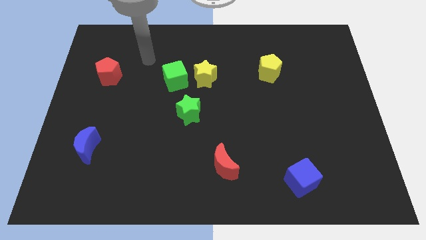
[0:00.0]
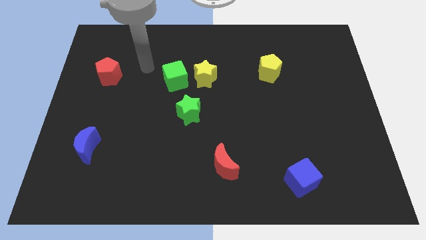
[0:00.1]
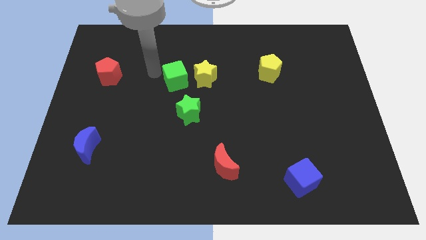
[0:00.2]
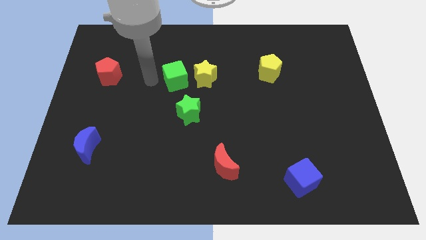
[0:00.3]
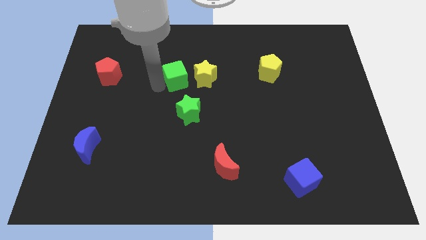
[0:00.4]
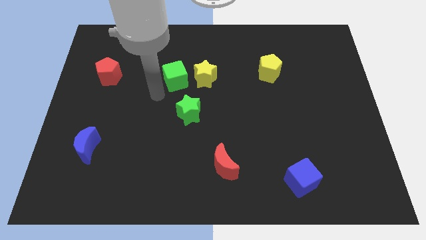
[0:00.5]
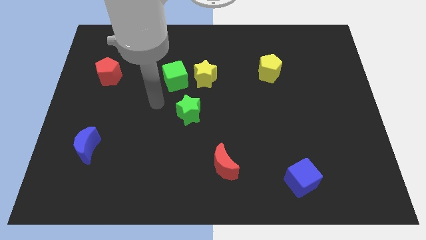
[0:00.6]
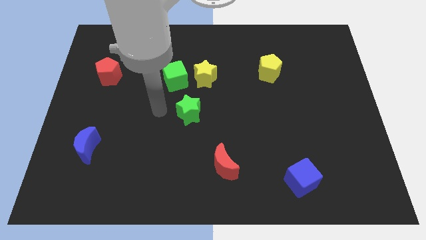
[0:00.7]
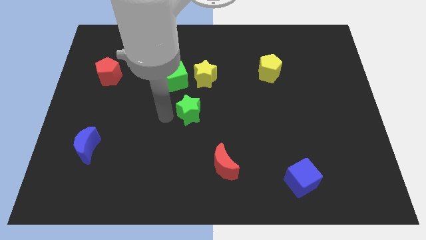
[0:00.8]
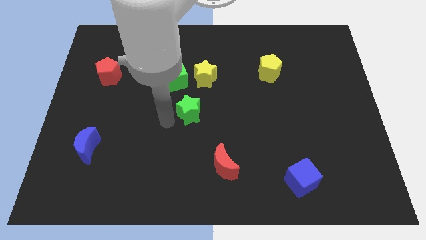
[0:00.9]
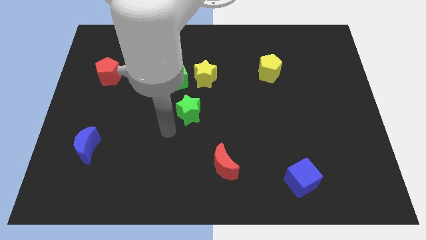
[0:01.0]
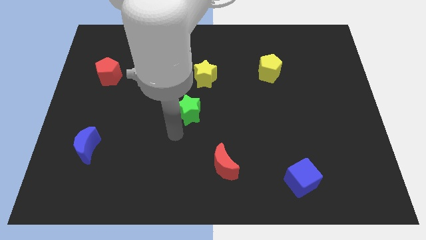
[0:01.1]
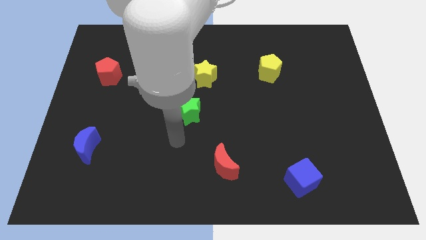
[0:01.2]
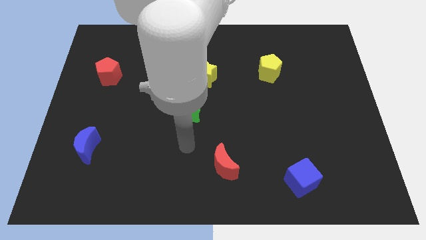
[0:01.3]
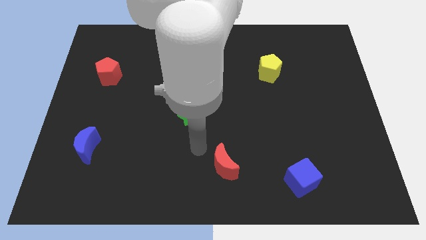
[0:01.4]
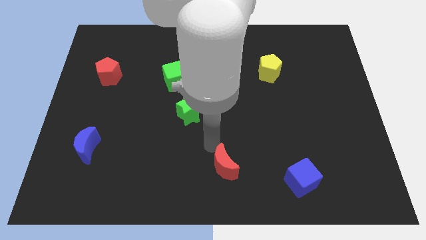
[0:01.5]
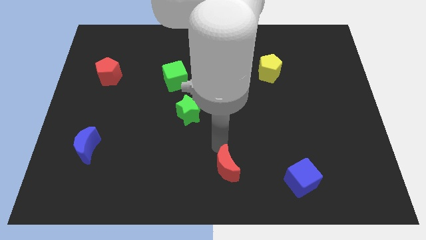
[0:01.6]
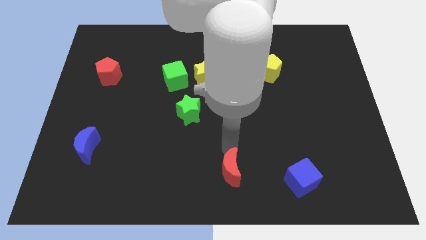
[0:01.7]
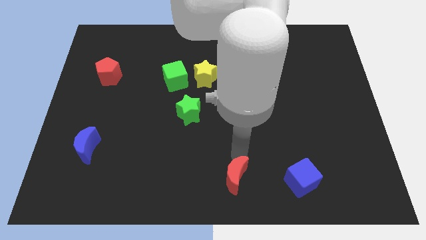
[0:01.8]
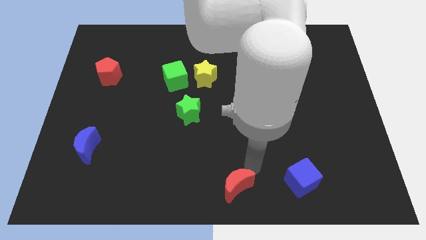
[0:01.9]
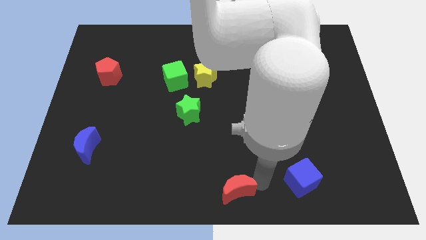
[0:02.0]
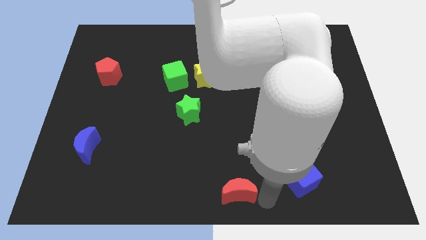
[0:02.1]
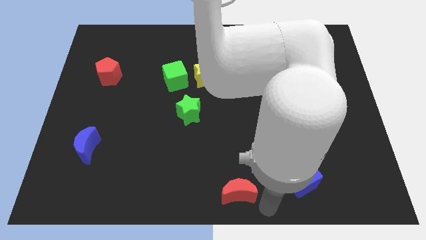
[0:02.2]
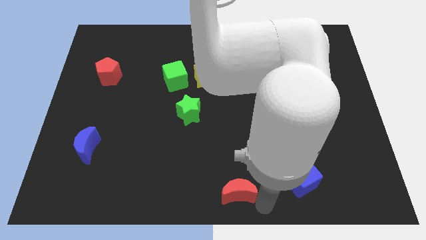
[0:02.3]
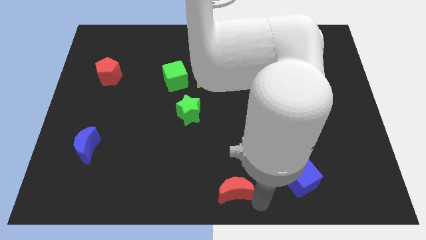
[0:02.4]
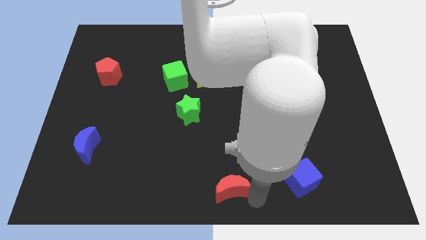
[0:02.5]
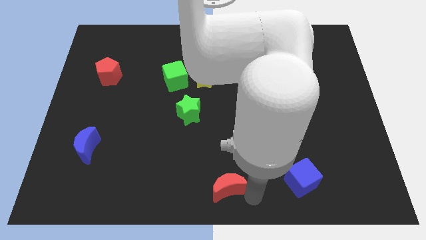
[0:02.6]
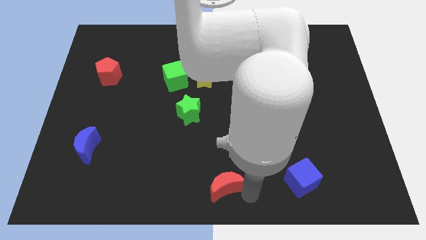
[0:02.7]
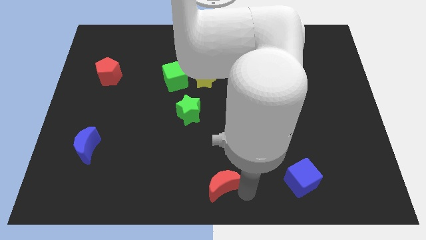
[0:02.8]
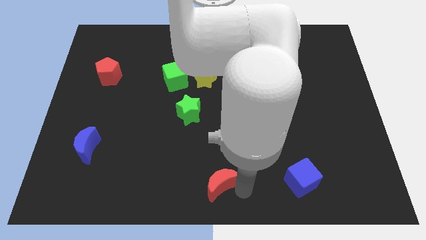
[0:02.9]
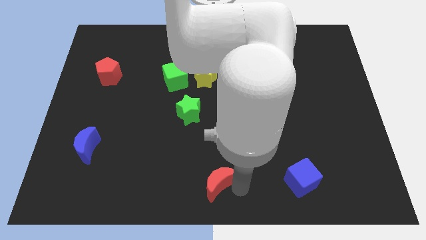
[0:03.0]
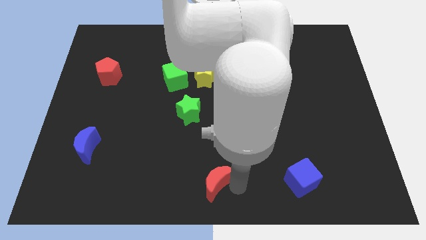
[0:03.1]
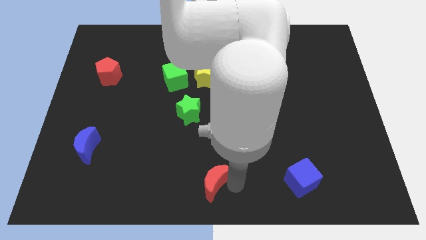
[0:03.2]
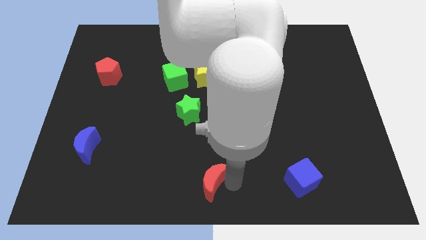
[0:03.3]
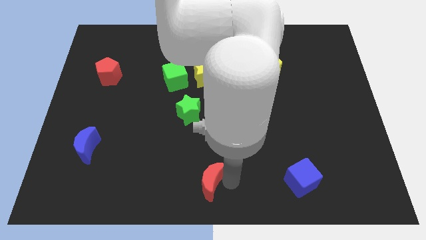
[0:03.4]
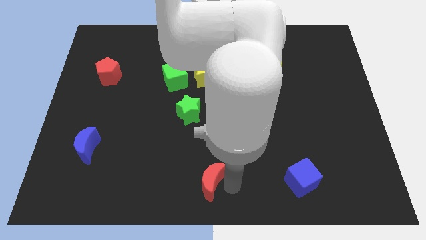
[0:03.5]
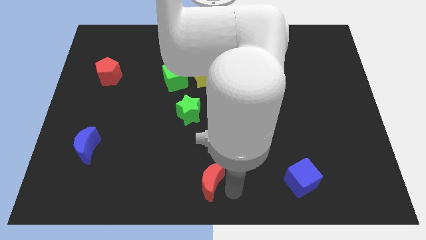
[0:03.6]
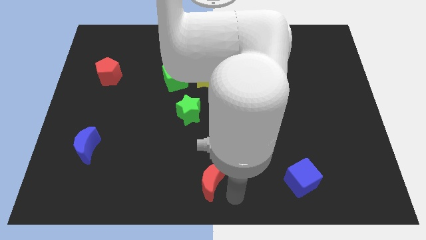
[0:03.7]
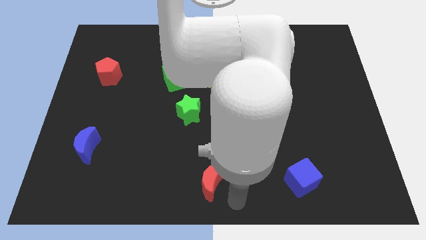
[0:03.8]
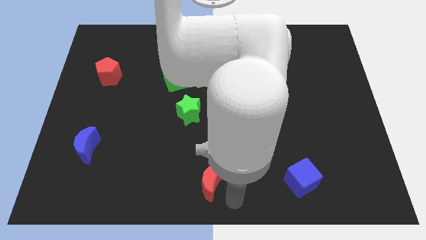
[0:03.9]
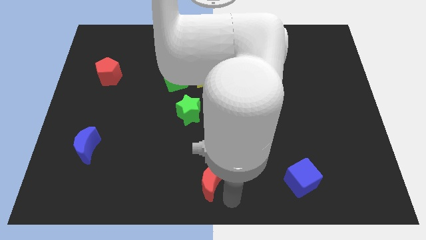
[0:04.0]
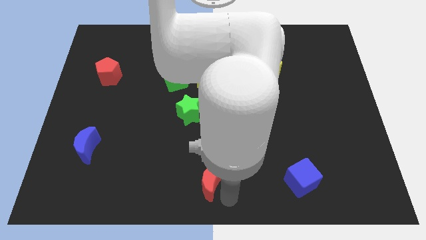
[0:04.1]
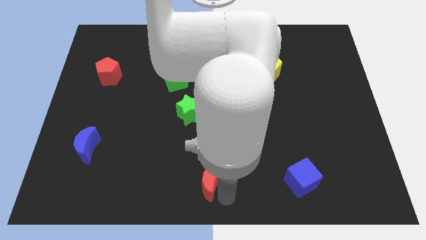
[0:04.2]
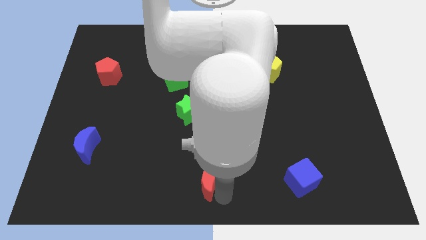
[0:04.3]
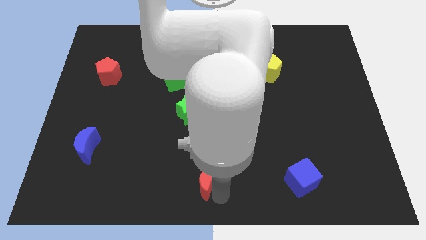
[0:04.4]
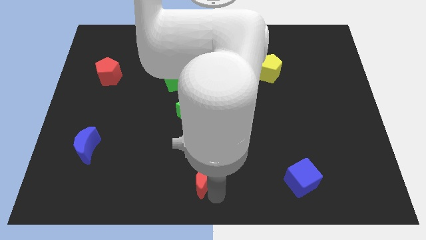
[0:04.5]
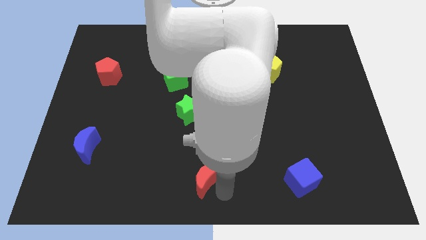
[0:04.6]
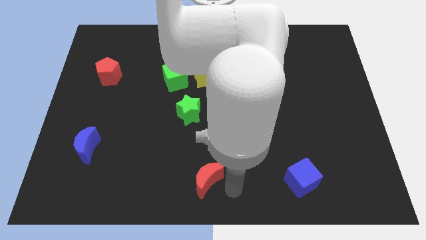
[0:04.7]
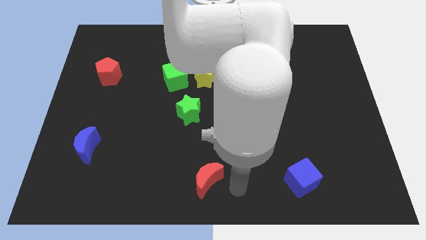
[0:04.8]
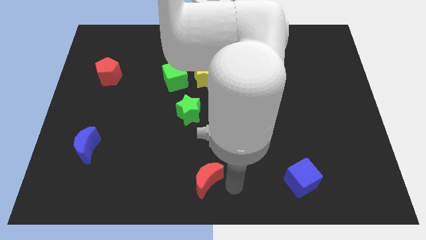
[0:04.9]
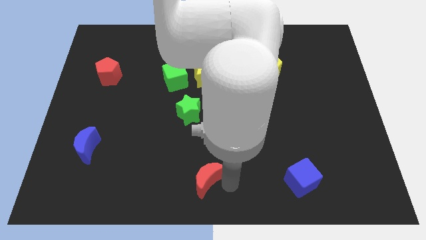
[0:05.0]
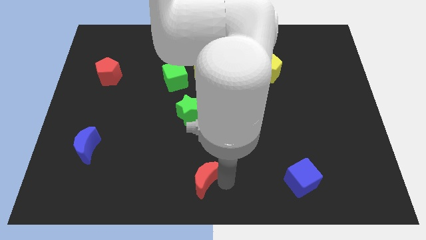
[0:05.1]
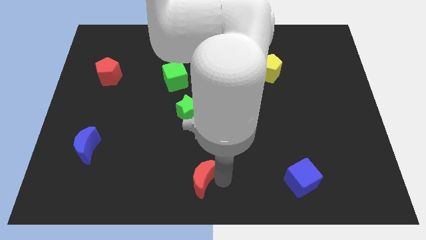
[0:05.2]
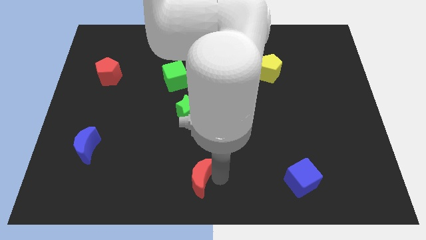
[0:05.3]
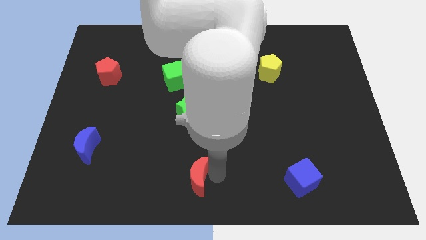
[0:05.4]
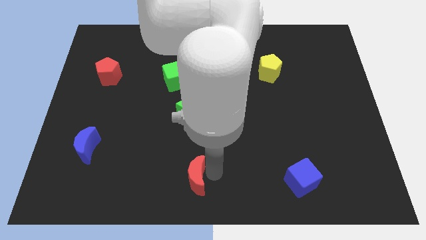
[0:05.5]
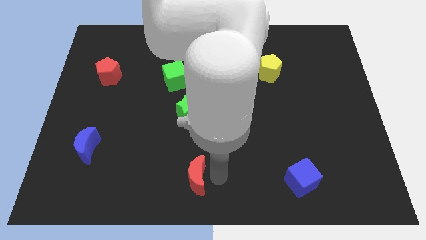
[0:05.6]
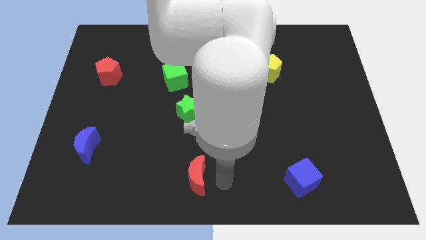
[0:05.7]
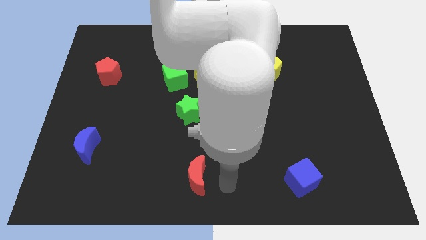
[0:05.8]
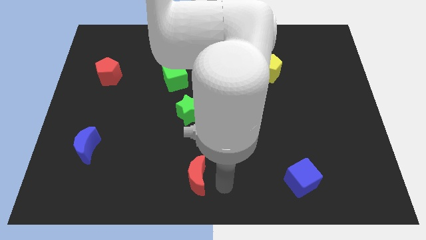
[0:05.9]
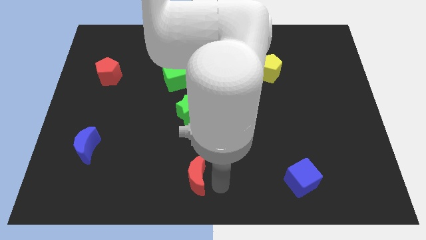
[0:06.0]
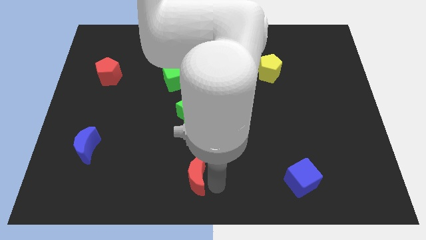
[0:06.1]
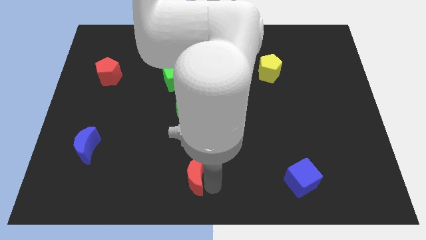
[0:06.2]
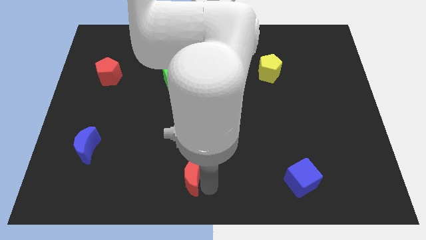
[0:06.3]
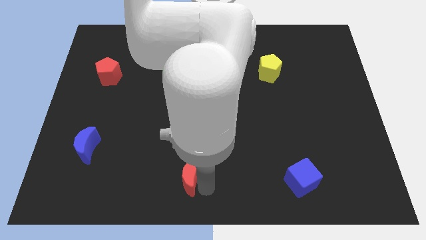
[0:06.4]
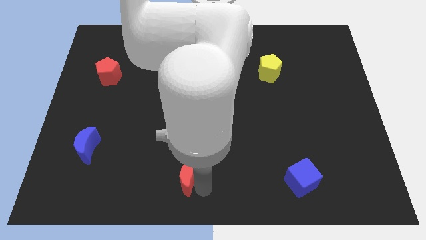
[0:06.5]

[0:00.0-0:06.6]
slide the red moon a little bit to the left

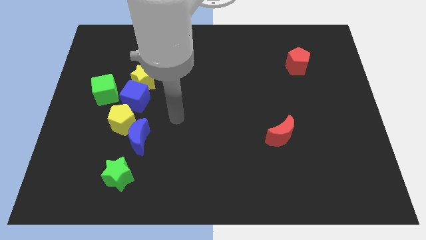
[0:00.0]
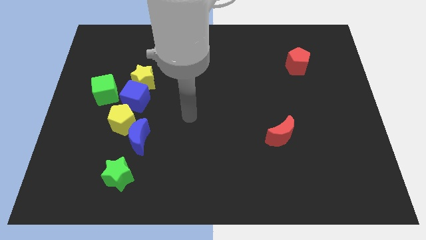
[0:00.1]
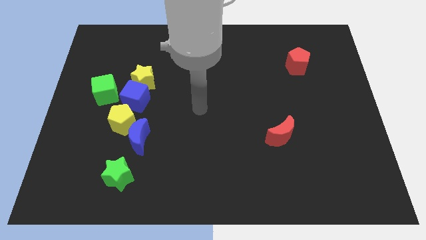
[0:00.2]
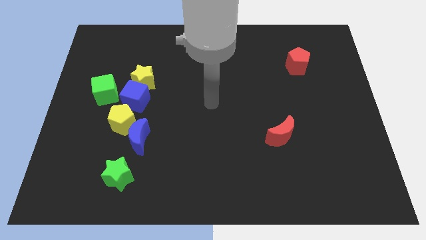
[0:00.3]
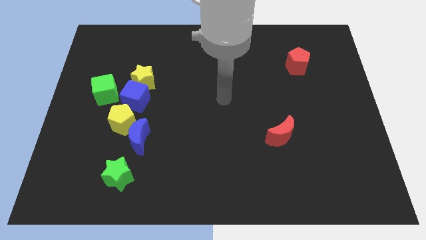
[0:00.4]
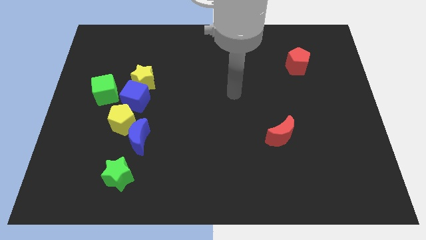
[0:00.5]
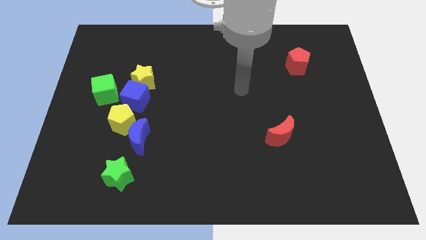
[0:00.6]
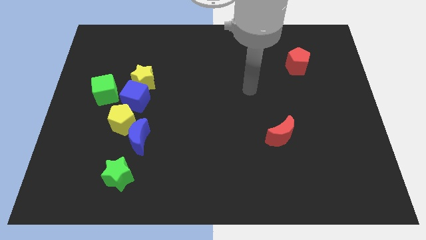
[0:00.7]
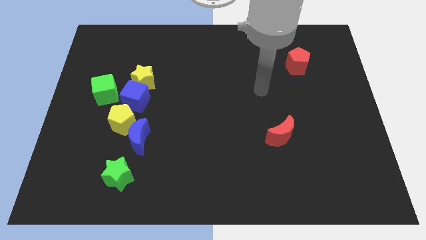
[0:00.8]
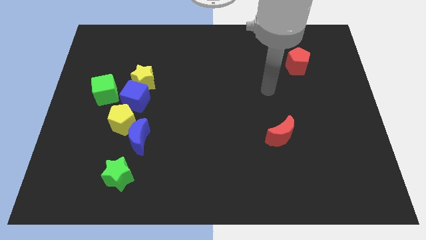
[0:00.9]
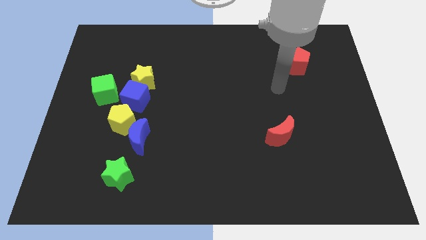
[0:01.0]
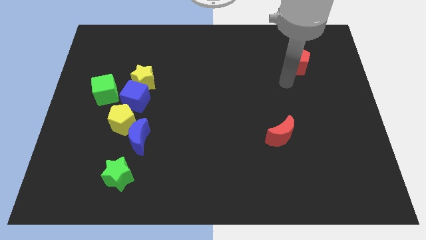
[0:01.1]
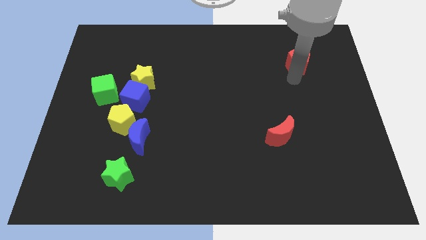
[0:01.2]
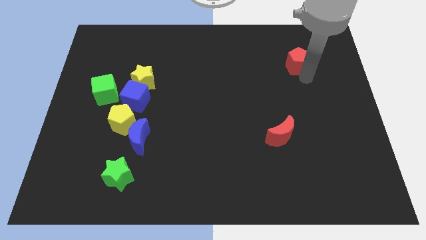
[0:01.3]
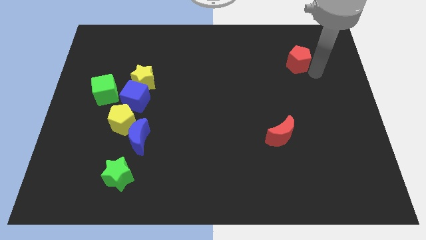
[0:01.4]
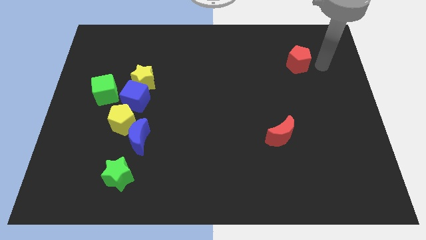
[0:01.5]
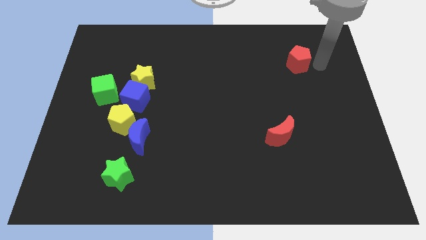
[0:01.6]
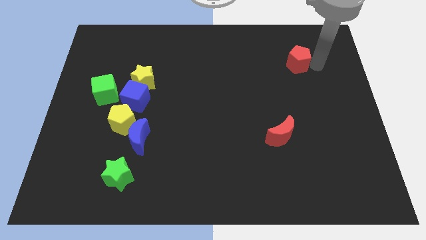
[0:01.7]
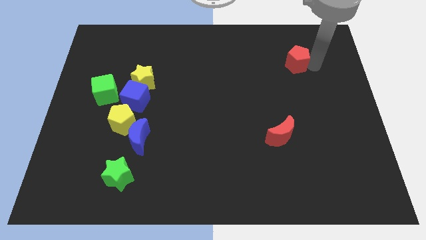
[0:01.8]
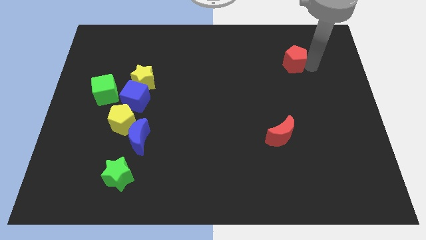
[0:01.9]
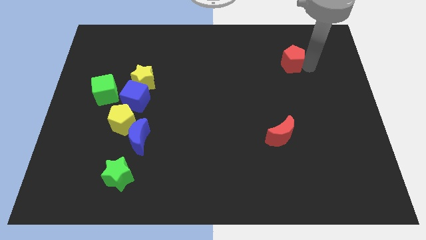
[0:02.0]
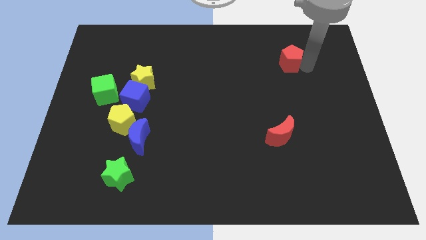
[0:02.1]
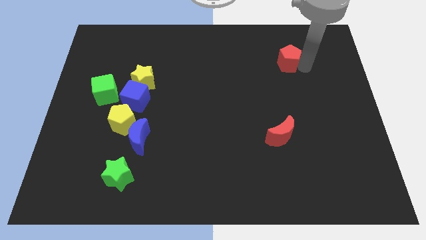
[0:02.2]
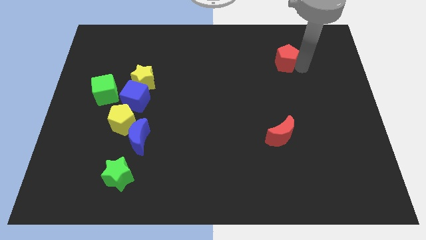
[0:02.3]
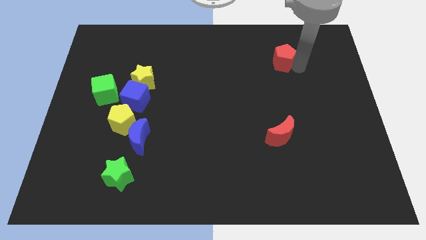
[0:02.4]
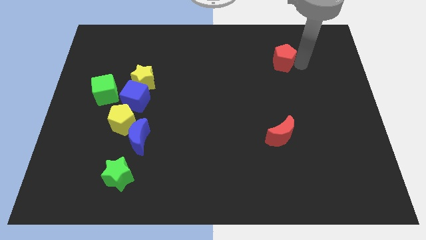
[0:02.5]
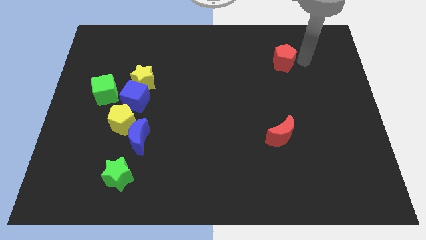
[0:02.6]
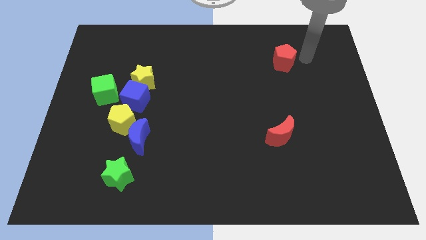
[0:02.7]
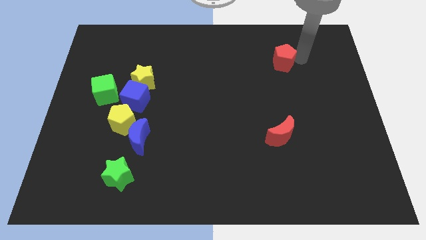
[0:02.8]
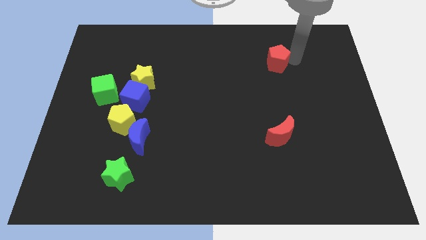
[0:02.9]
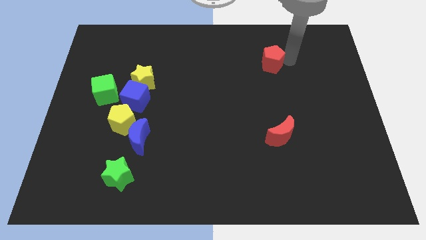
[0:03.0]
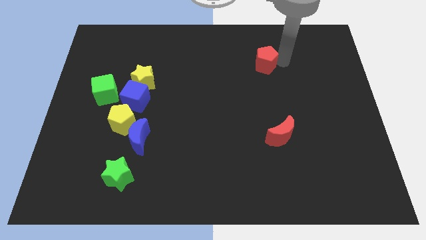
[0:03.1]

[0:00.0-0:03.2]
move the red pentagon a little to the left
